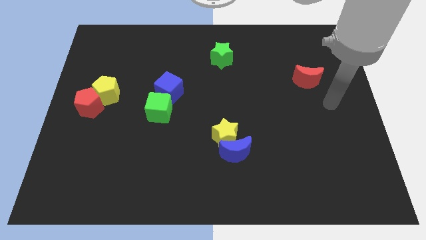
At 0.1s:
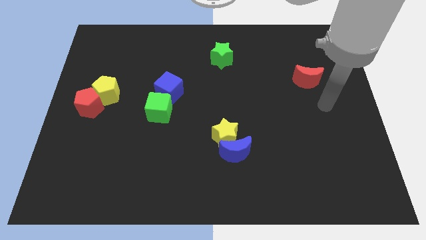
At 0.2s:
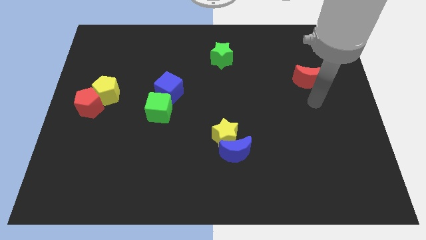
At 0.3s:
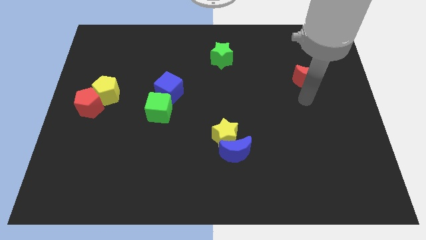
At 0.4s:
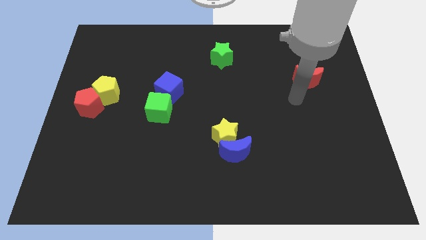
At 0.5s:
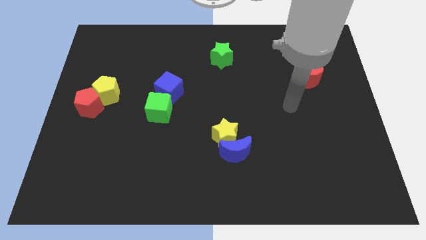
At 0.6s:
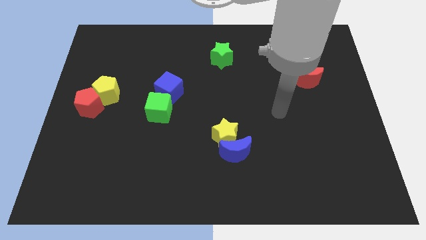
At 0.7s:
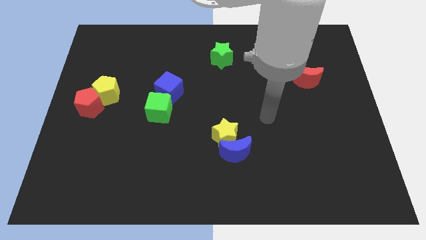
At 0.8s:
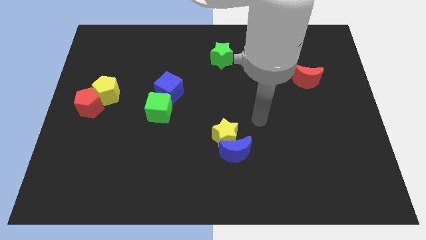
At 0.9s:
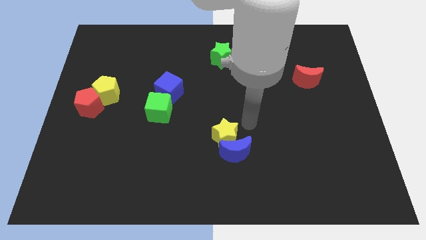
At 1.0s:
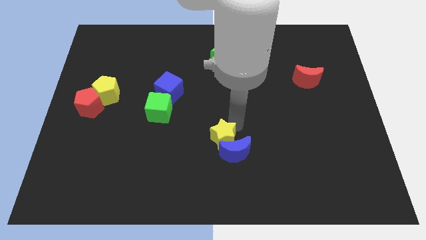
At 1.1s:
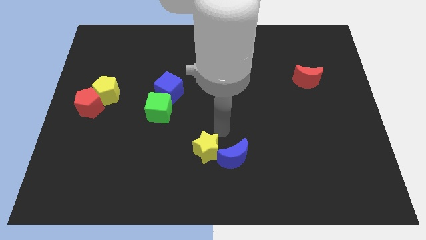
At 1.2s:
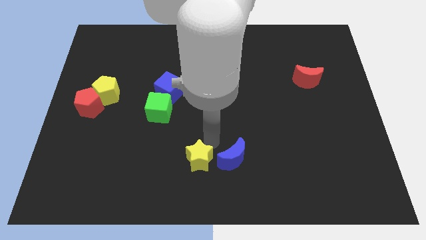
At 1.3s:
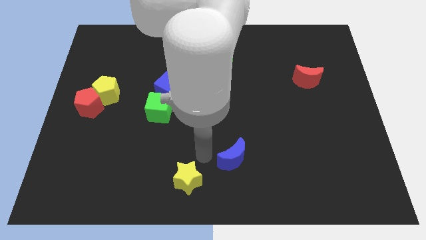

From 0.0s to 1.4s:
separate the blue moon from the yellow star

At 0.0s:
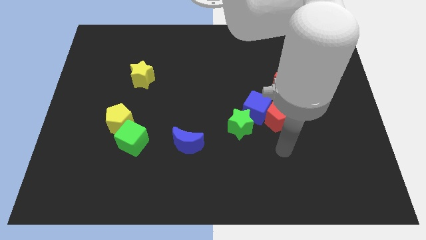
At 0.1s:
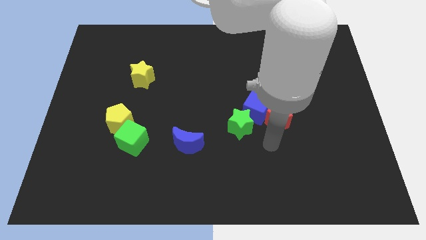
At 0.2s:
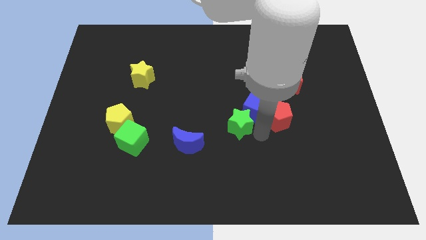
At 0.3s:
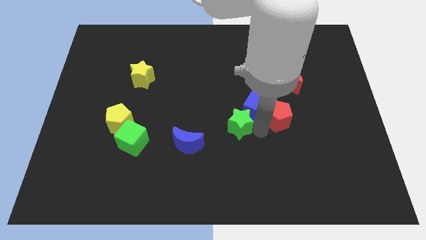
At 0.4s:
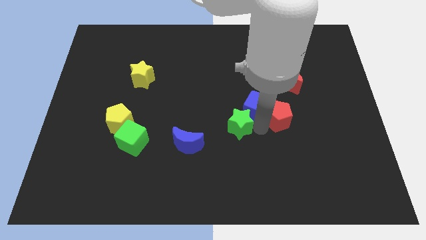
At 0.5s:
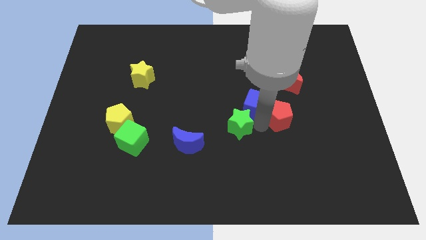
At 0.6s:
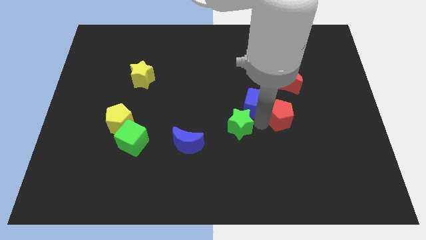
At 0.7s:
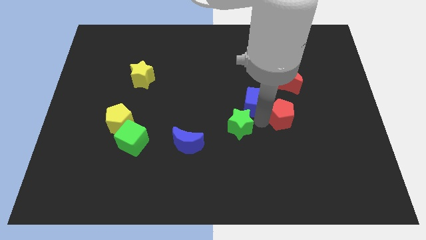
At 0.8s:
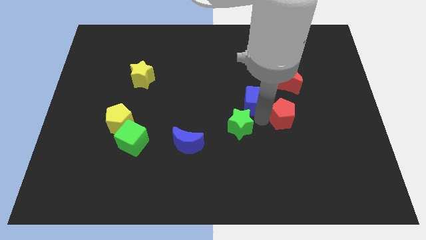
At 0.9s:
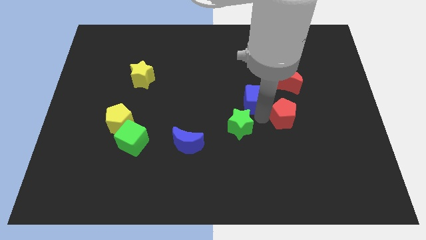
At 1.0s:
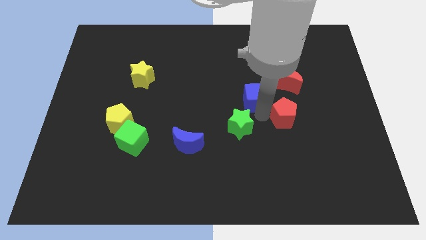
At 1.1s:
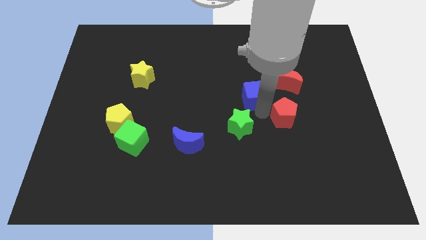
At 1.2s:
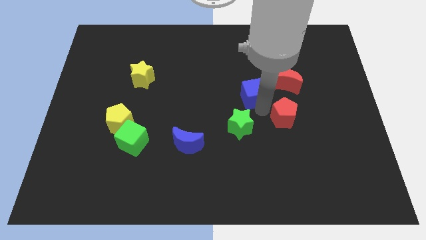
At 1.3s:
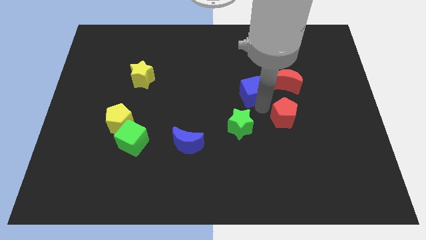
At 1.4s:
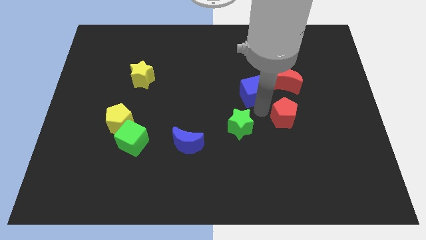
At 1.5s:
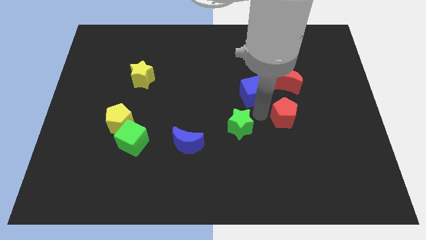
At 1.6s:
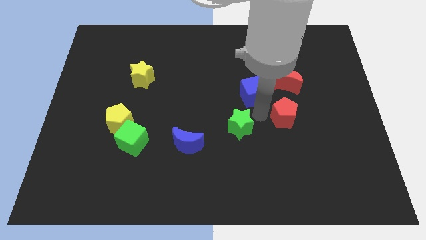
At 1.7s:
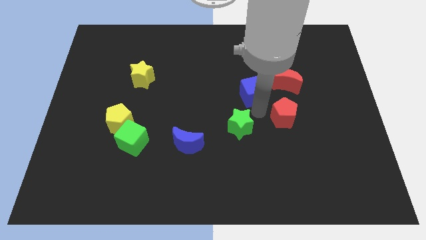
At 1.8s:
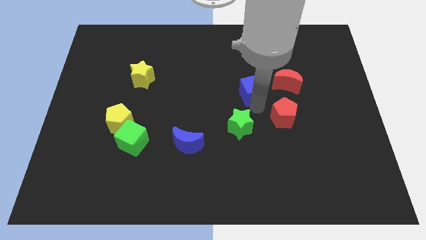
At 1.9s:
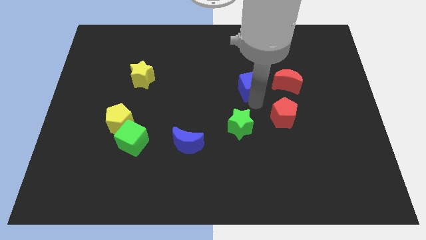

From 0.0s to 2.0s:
separate the blue cube from the red pentagon and green star

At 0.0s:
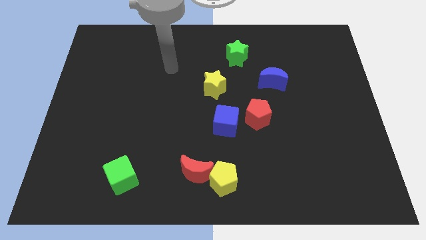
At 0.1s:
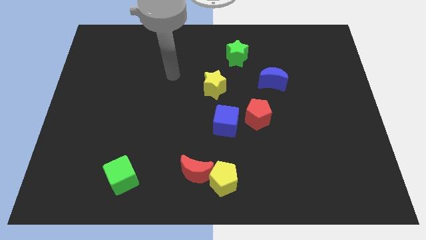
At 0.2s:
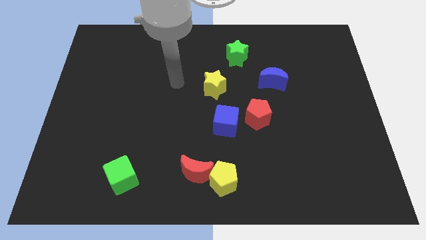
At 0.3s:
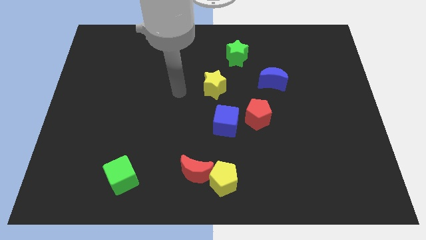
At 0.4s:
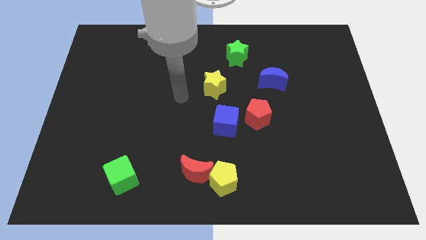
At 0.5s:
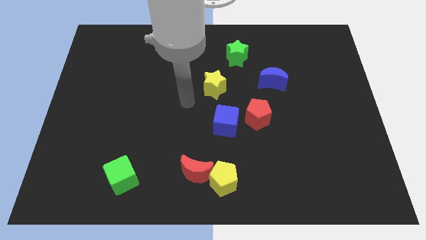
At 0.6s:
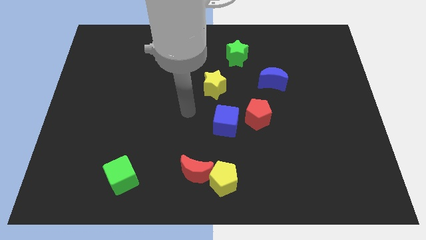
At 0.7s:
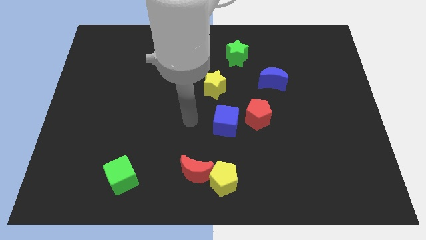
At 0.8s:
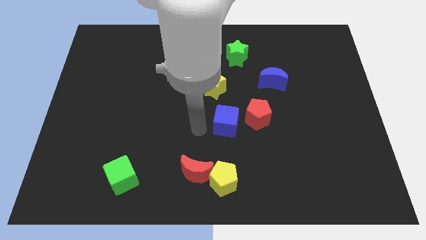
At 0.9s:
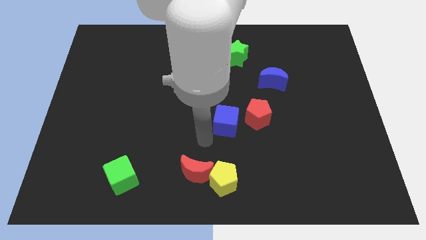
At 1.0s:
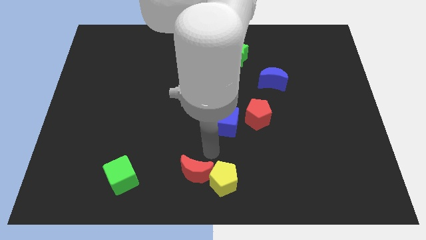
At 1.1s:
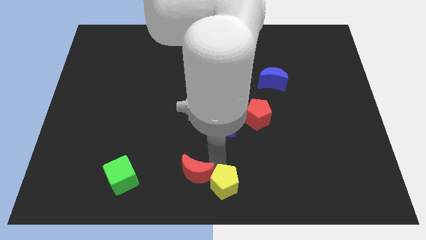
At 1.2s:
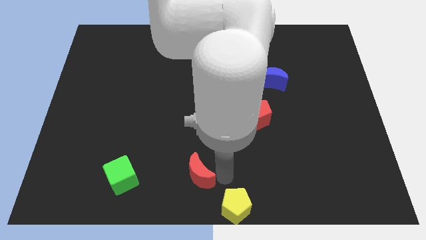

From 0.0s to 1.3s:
pull the red moon apart from the yellow pentagon

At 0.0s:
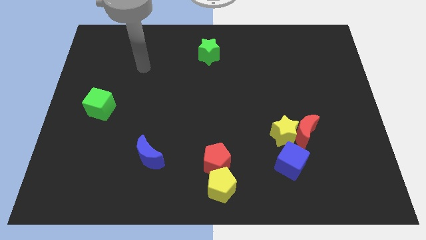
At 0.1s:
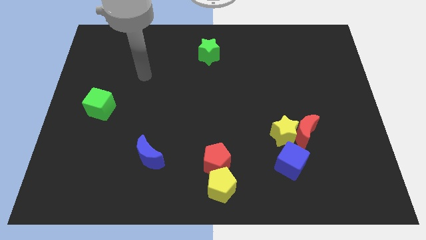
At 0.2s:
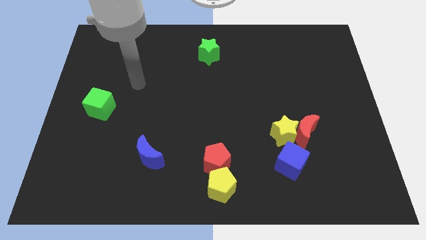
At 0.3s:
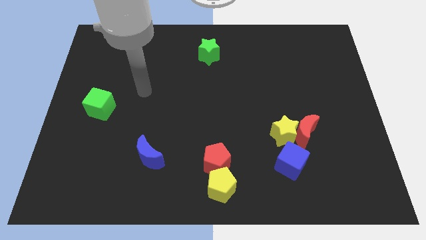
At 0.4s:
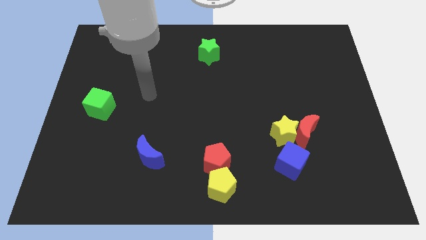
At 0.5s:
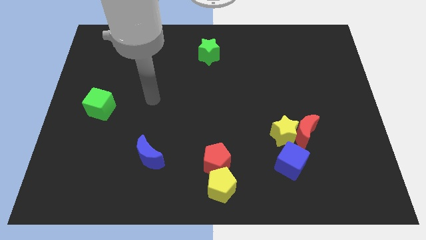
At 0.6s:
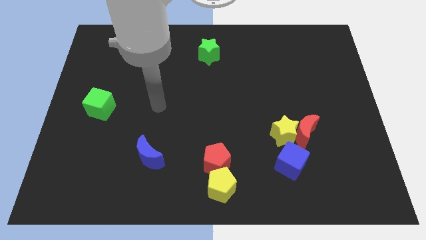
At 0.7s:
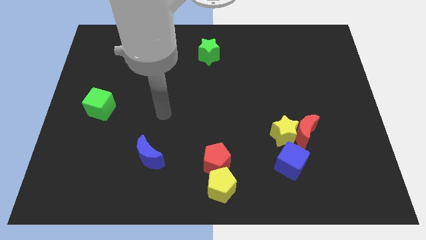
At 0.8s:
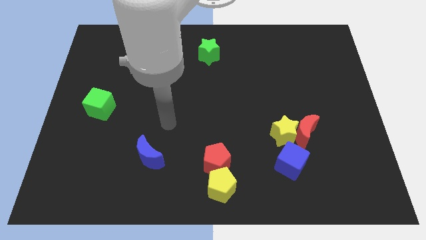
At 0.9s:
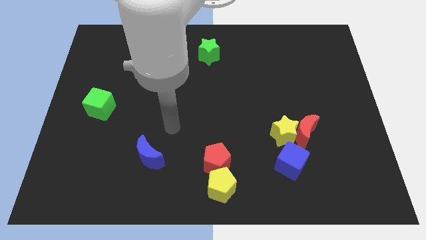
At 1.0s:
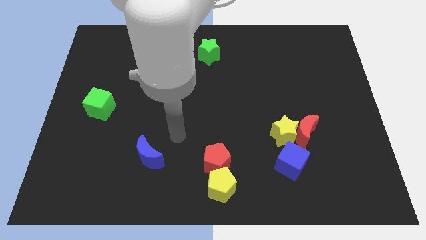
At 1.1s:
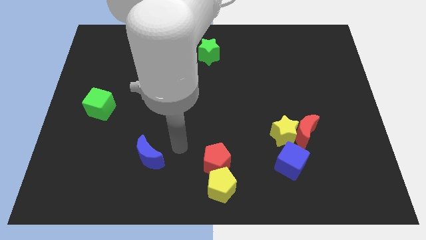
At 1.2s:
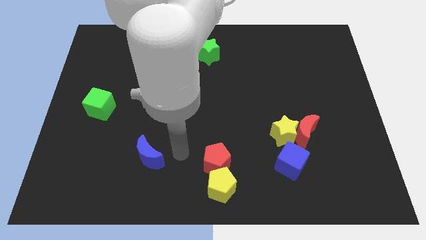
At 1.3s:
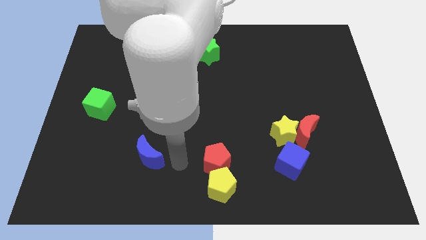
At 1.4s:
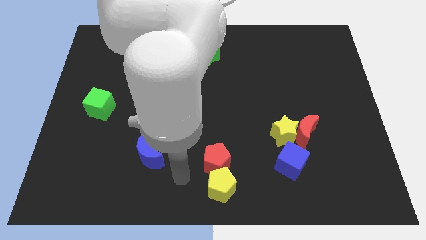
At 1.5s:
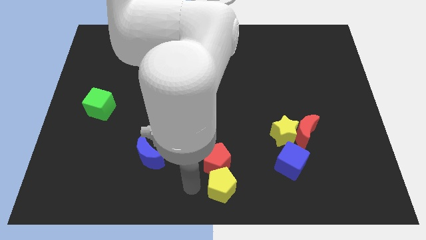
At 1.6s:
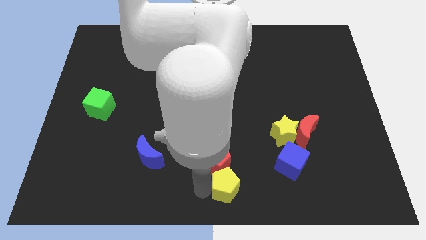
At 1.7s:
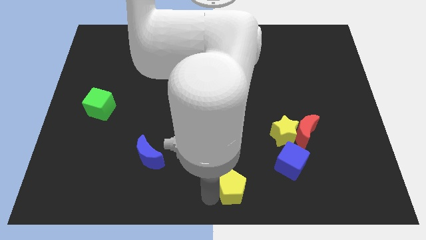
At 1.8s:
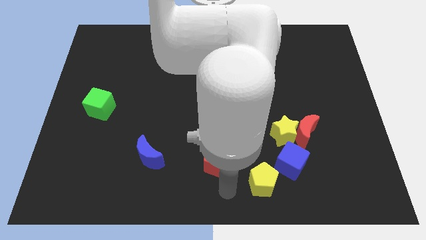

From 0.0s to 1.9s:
separate the red pentagon from the yellow pentagon

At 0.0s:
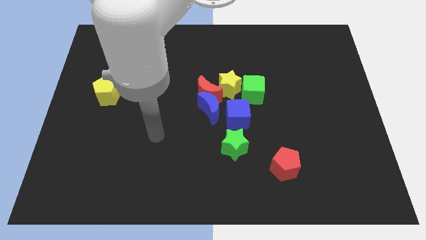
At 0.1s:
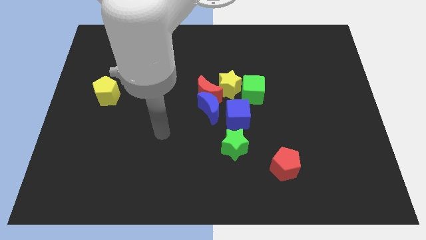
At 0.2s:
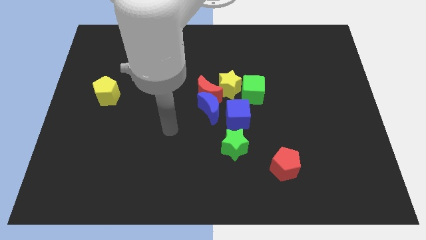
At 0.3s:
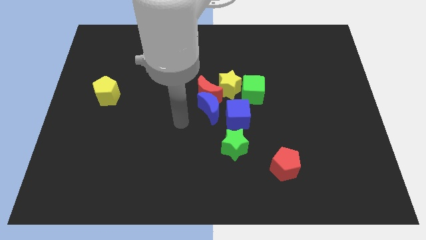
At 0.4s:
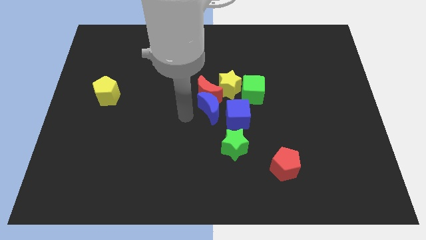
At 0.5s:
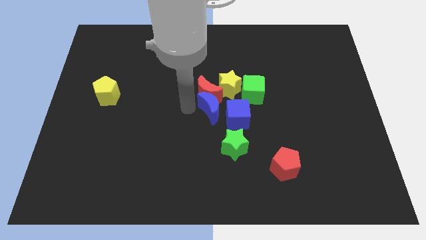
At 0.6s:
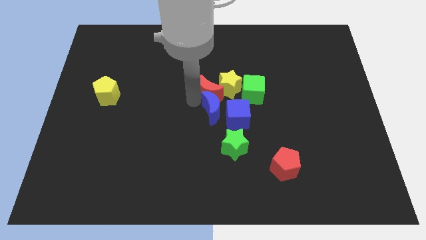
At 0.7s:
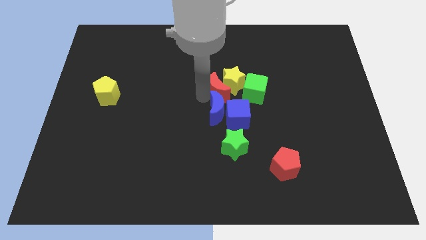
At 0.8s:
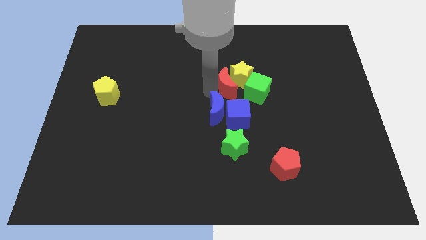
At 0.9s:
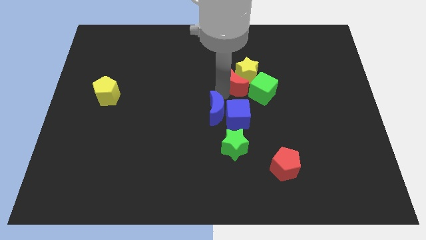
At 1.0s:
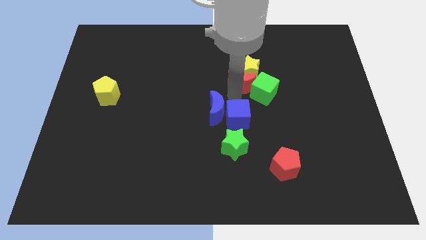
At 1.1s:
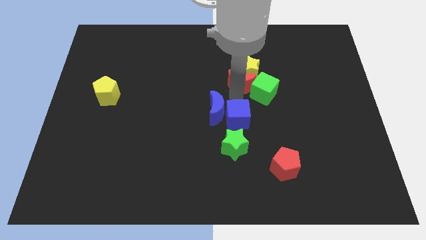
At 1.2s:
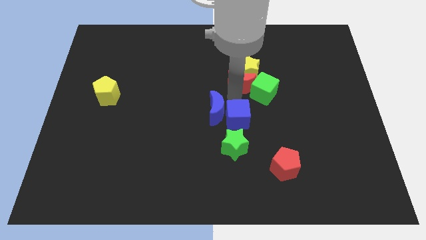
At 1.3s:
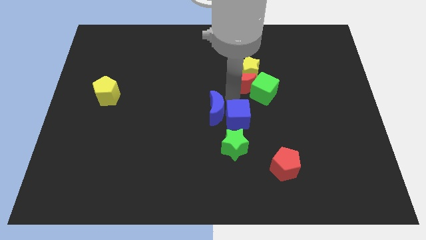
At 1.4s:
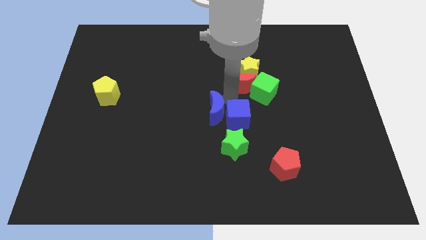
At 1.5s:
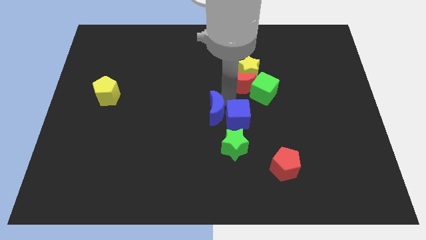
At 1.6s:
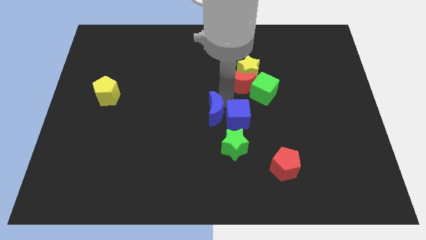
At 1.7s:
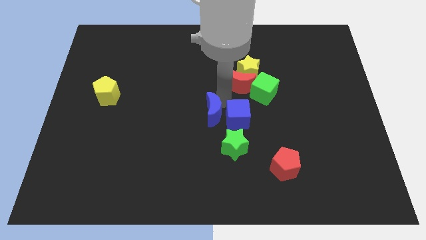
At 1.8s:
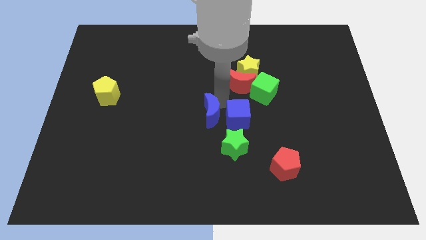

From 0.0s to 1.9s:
separate the blue moon from the red moon, blue cube, and yellow star

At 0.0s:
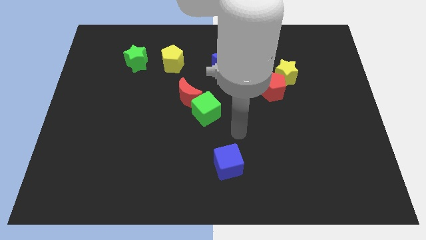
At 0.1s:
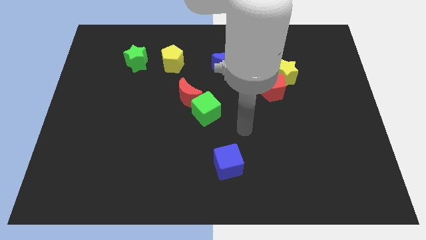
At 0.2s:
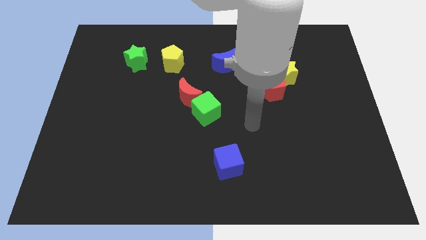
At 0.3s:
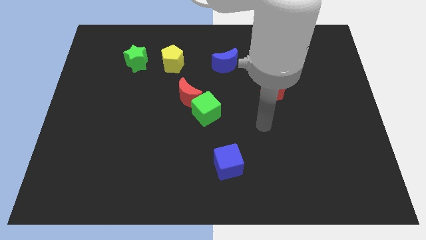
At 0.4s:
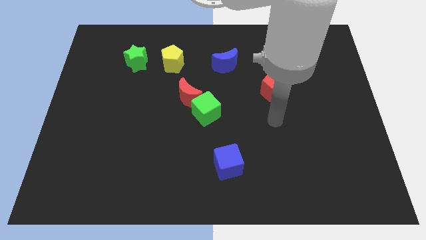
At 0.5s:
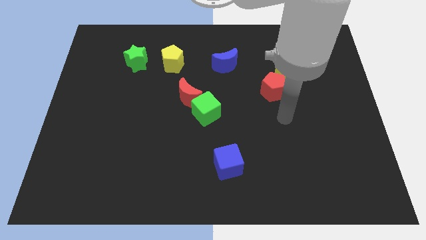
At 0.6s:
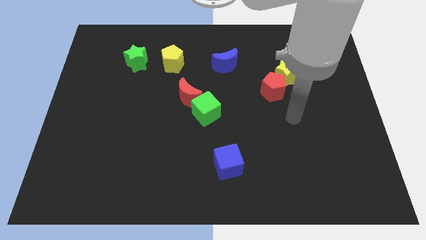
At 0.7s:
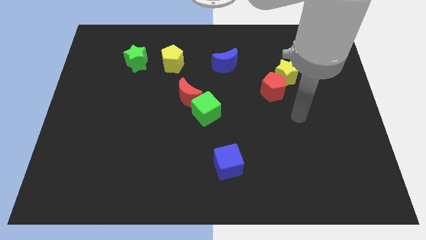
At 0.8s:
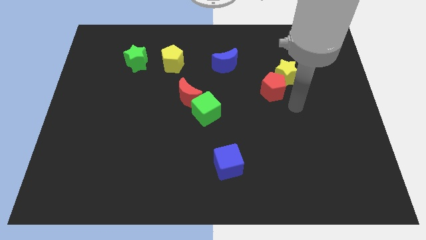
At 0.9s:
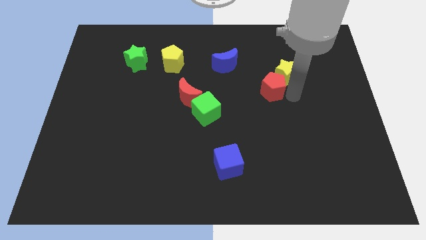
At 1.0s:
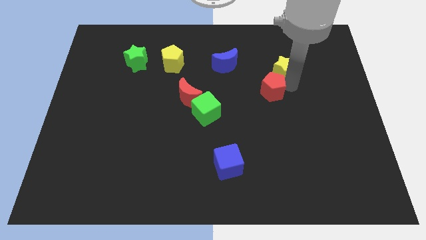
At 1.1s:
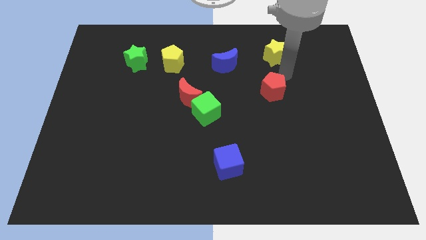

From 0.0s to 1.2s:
pull the red pentagon apart from the yellow star
